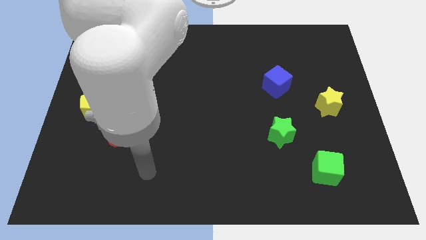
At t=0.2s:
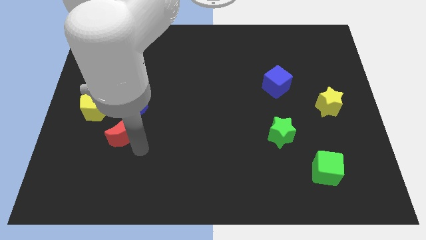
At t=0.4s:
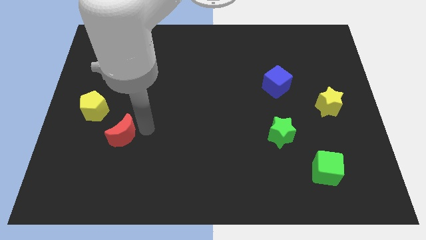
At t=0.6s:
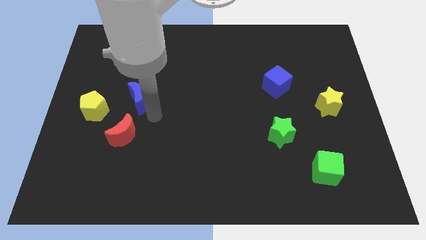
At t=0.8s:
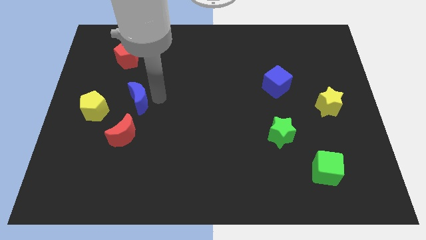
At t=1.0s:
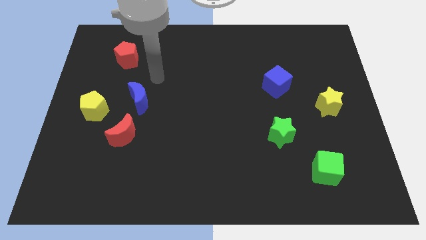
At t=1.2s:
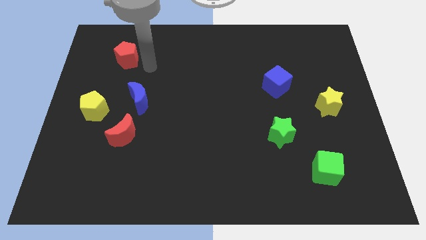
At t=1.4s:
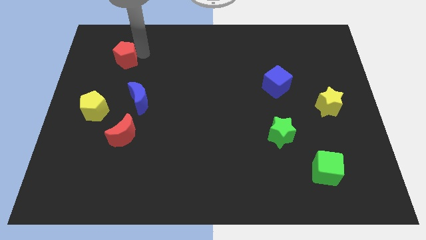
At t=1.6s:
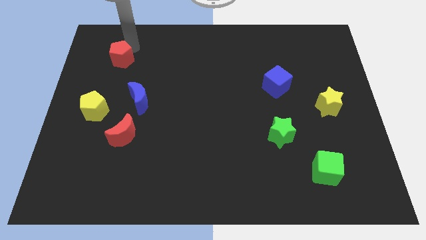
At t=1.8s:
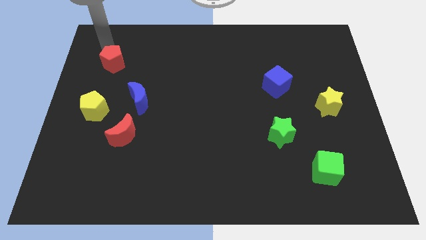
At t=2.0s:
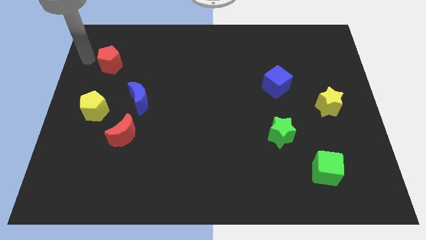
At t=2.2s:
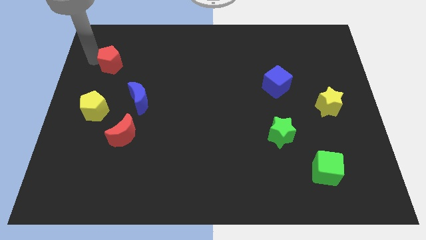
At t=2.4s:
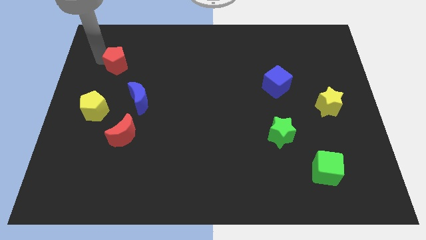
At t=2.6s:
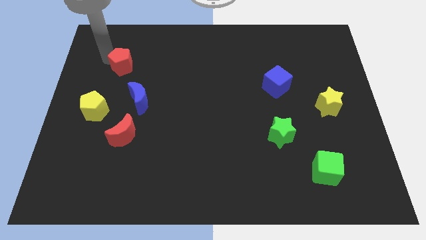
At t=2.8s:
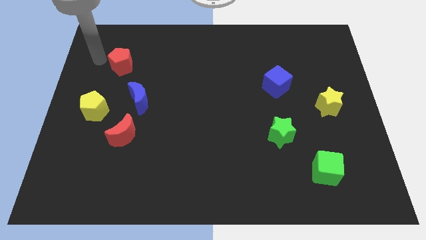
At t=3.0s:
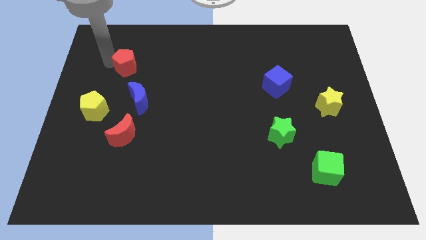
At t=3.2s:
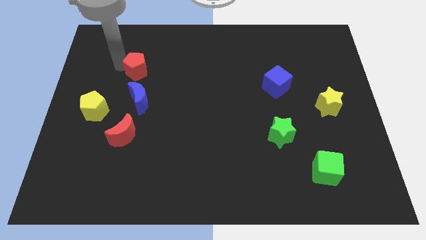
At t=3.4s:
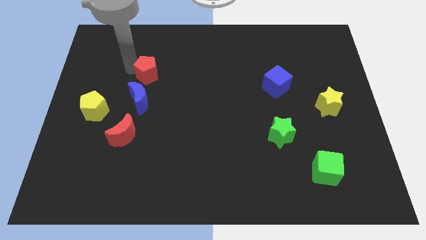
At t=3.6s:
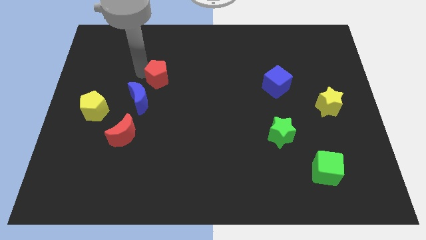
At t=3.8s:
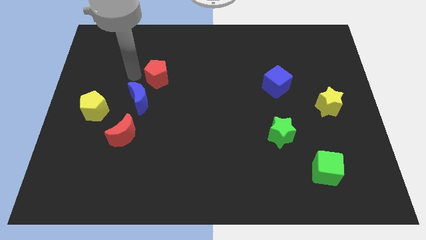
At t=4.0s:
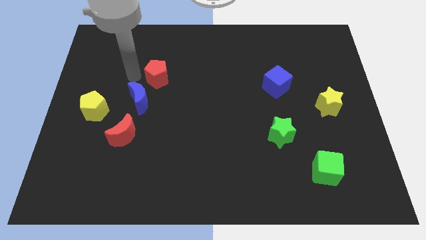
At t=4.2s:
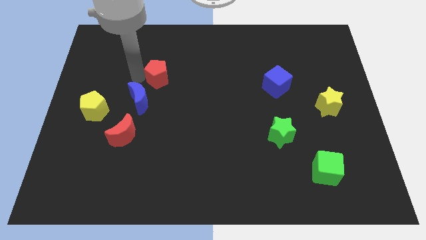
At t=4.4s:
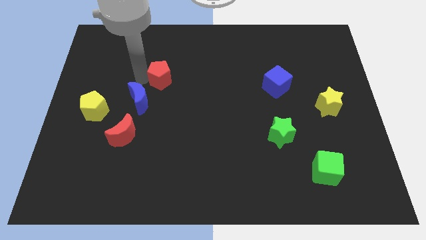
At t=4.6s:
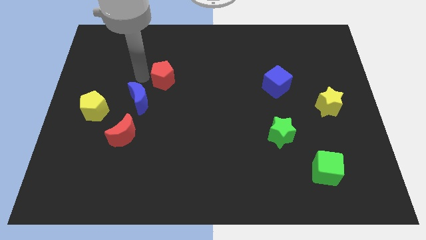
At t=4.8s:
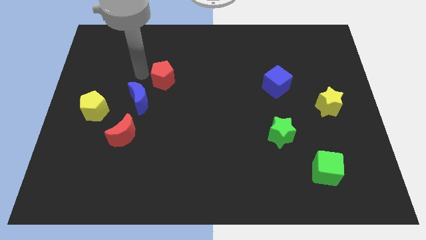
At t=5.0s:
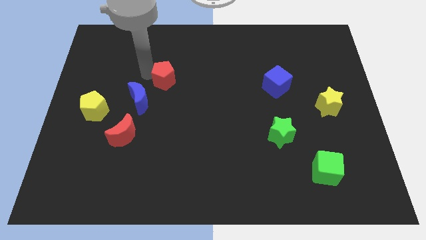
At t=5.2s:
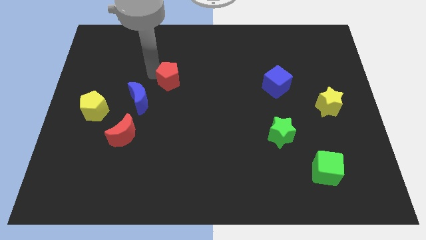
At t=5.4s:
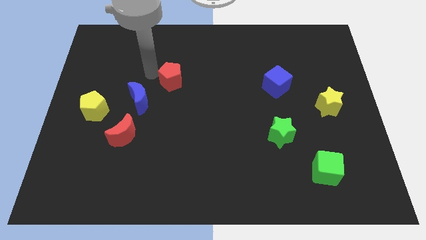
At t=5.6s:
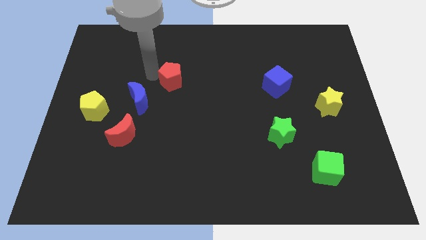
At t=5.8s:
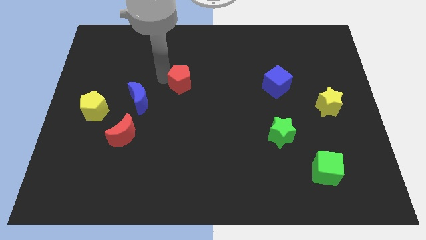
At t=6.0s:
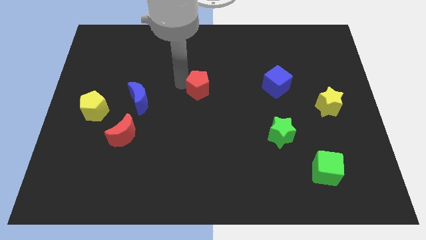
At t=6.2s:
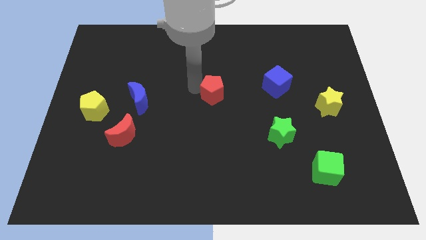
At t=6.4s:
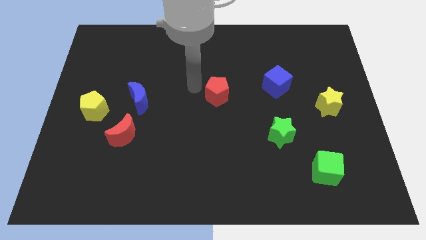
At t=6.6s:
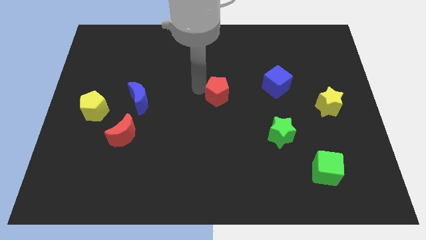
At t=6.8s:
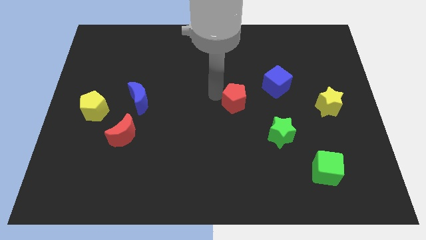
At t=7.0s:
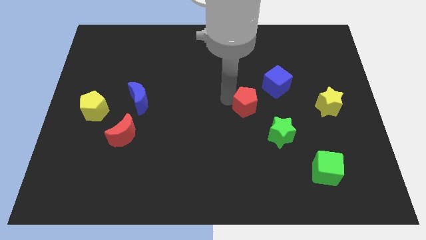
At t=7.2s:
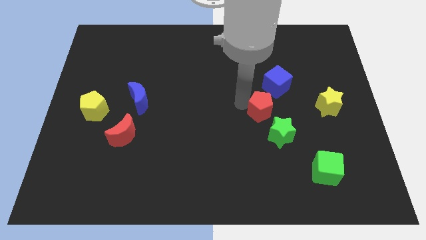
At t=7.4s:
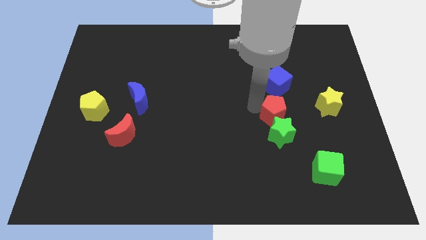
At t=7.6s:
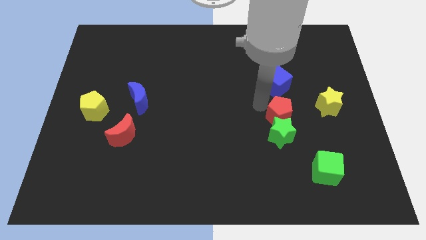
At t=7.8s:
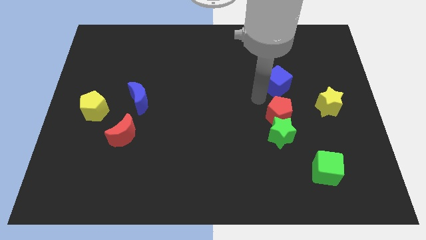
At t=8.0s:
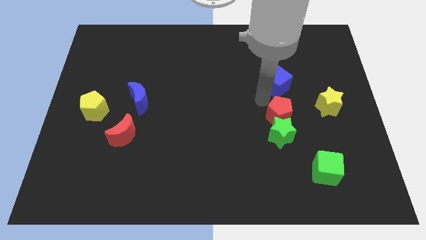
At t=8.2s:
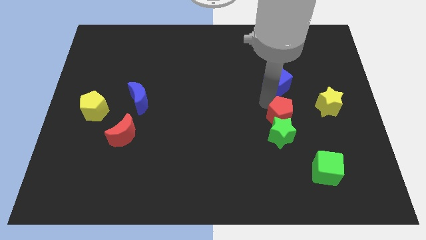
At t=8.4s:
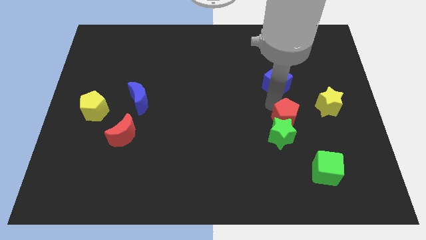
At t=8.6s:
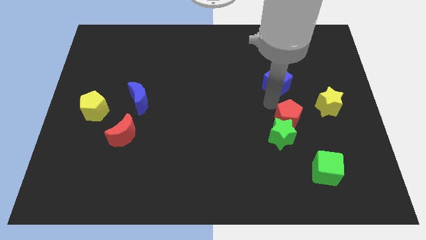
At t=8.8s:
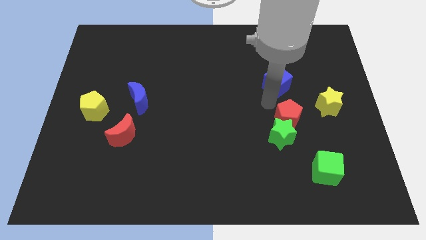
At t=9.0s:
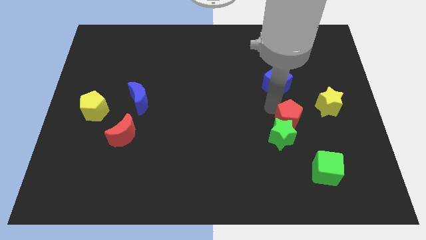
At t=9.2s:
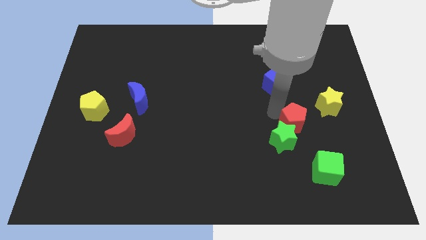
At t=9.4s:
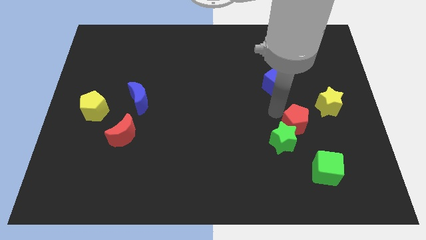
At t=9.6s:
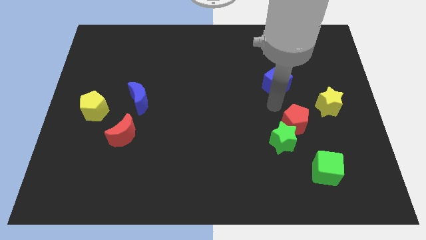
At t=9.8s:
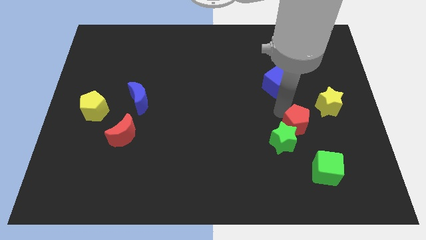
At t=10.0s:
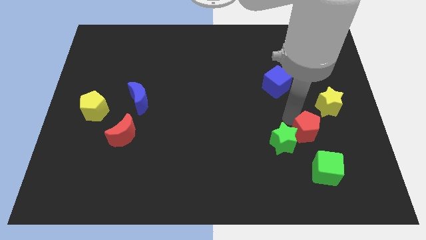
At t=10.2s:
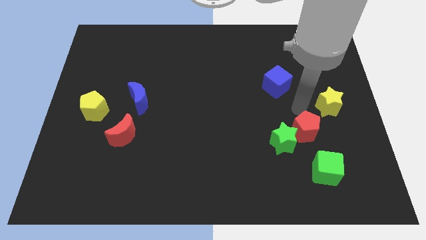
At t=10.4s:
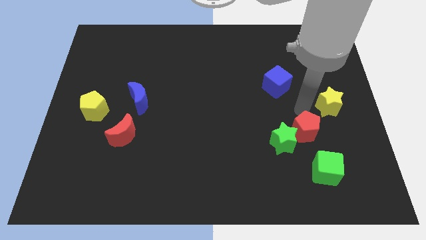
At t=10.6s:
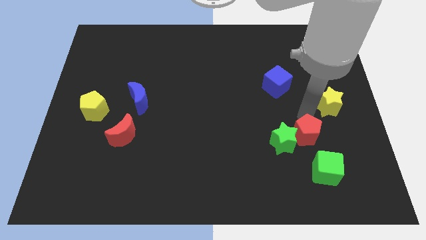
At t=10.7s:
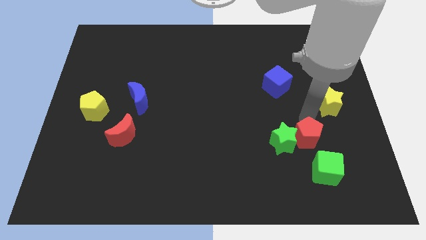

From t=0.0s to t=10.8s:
move the red pentagon to the bottom right side of the green star

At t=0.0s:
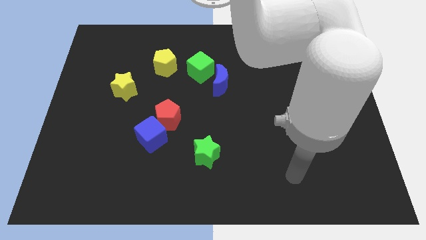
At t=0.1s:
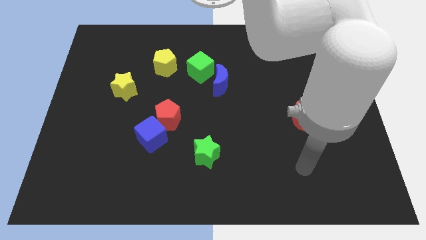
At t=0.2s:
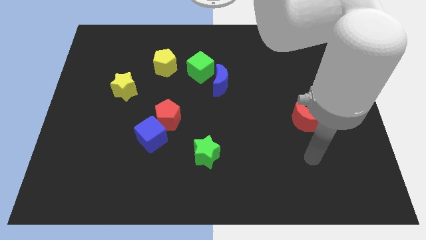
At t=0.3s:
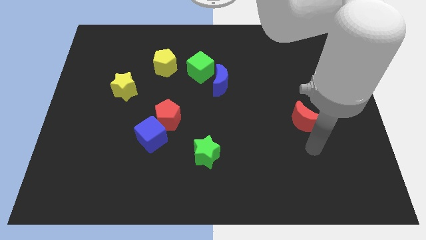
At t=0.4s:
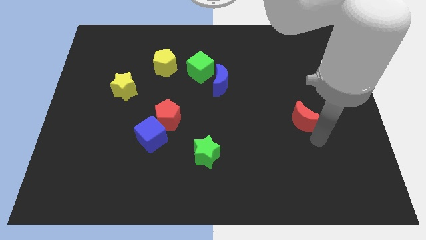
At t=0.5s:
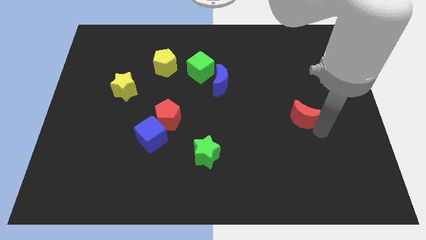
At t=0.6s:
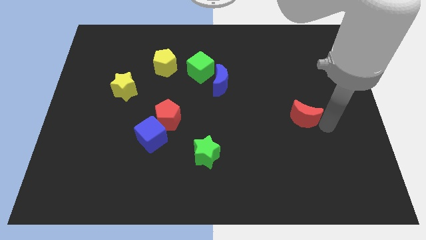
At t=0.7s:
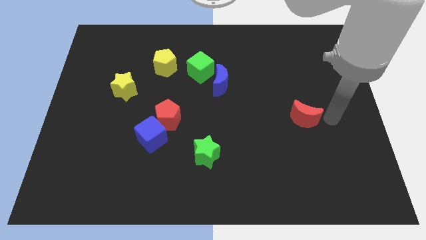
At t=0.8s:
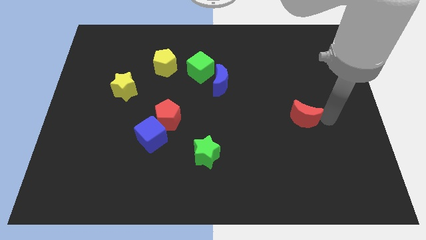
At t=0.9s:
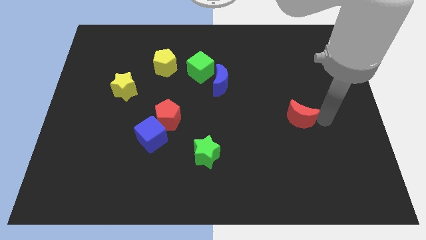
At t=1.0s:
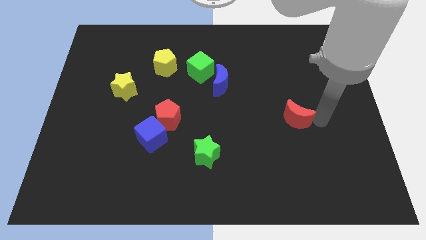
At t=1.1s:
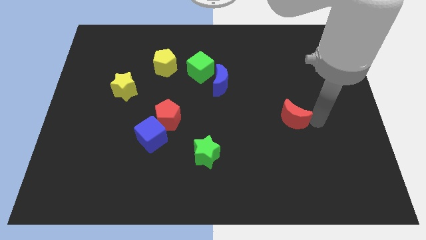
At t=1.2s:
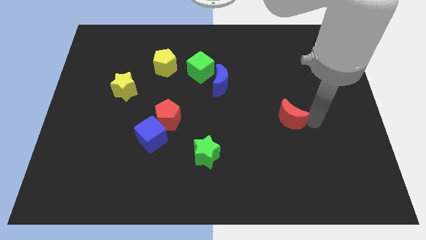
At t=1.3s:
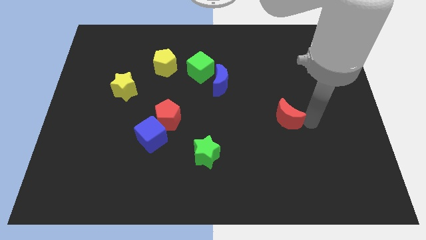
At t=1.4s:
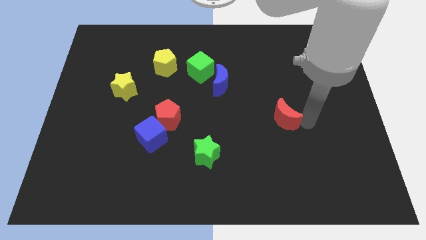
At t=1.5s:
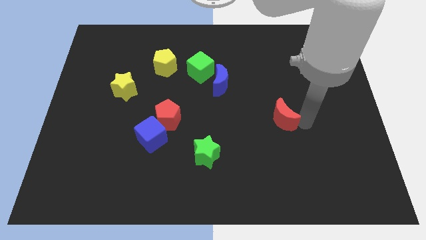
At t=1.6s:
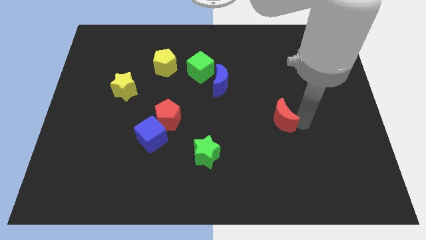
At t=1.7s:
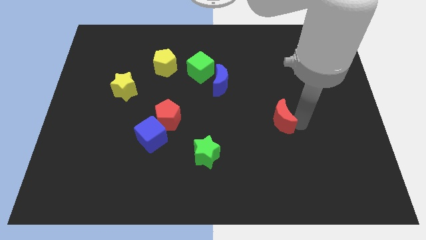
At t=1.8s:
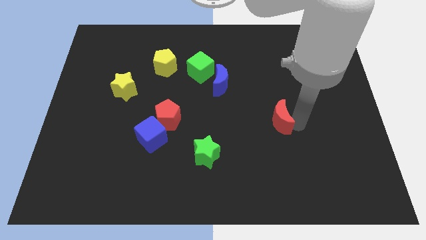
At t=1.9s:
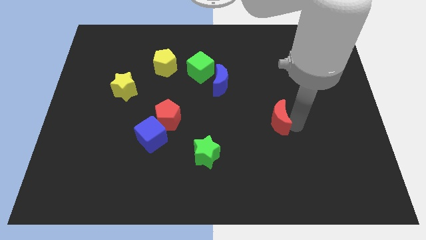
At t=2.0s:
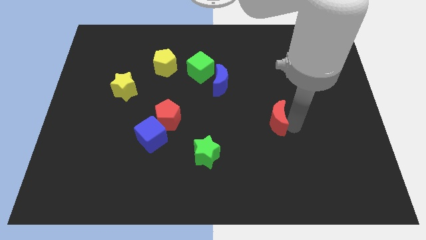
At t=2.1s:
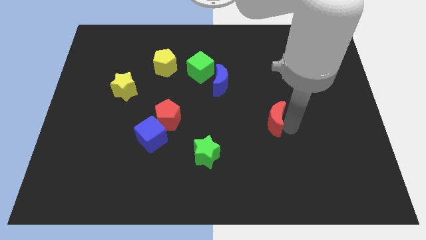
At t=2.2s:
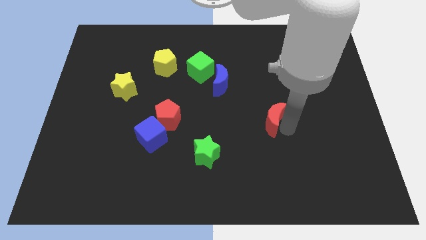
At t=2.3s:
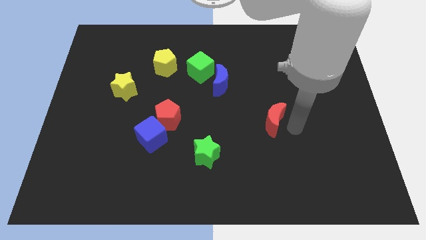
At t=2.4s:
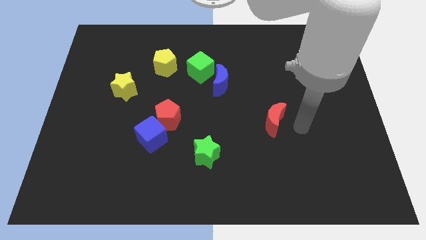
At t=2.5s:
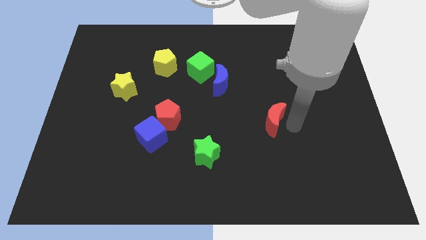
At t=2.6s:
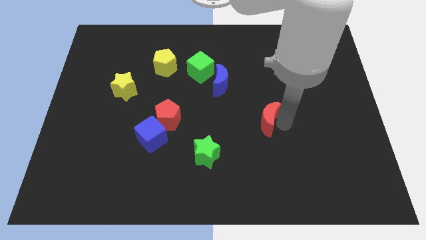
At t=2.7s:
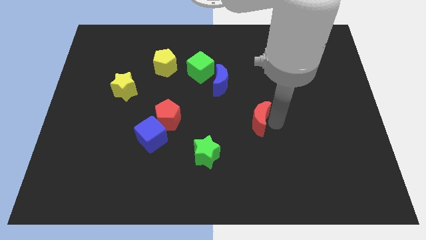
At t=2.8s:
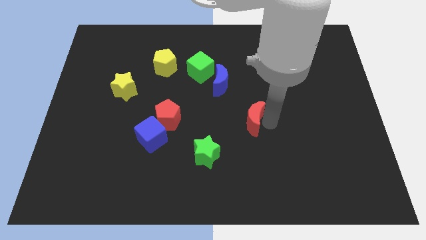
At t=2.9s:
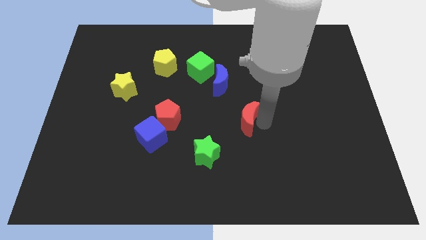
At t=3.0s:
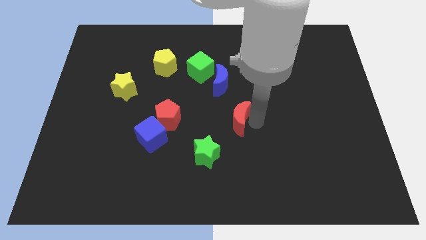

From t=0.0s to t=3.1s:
push the red moon below the blue moon
